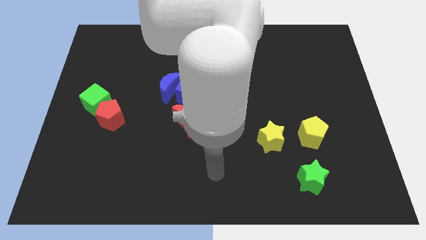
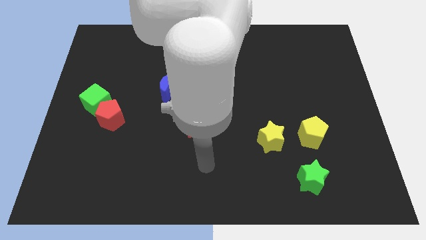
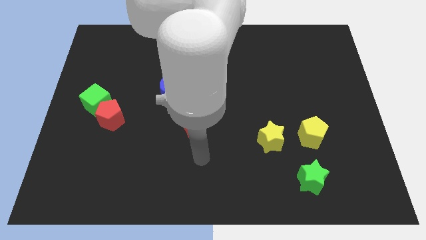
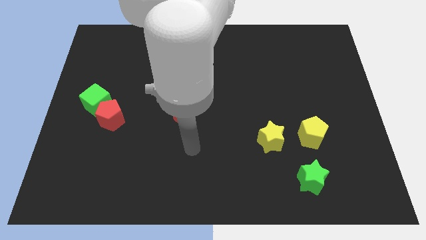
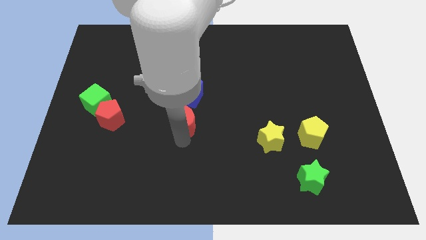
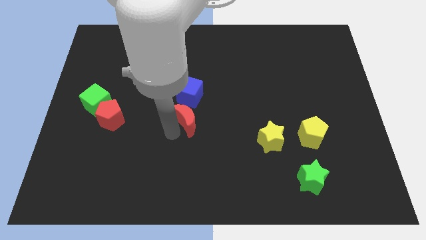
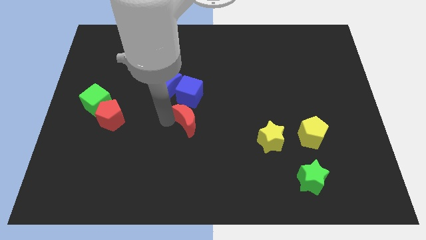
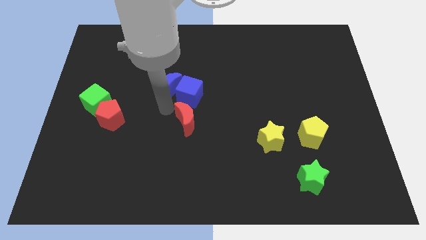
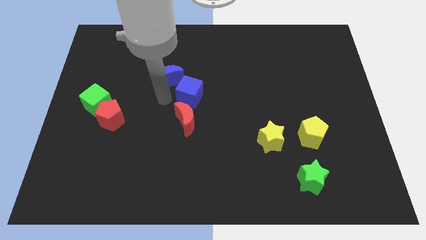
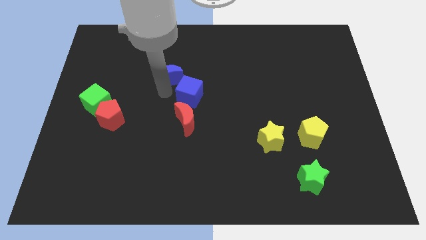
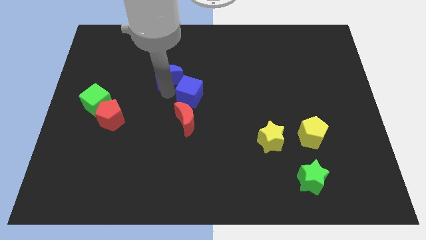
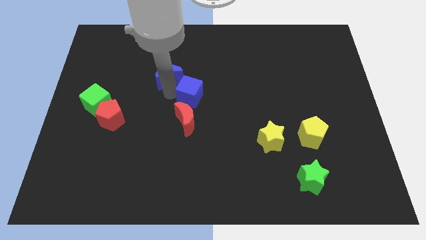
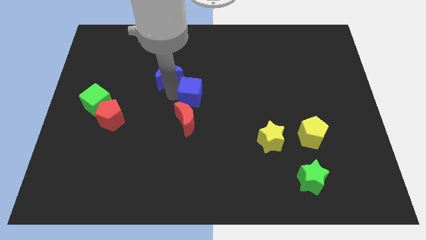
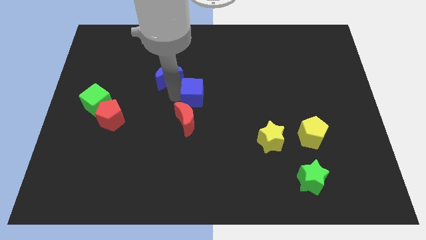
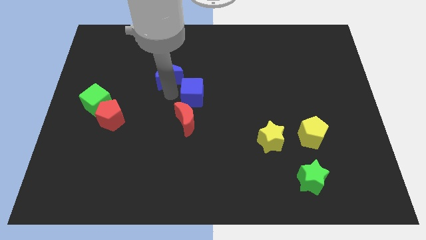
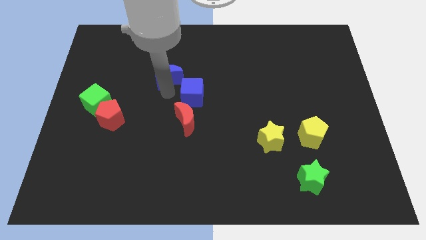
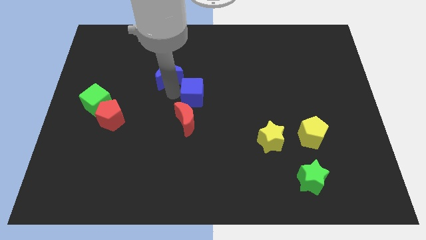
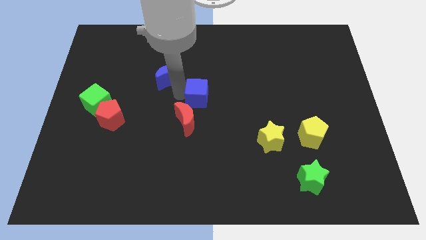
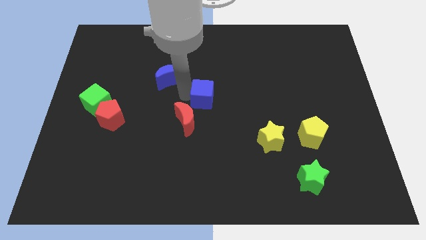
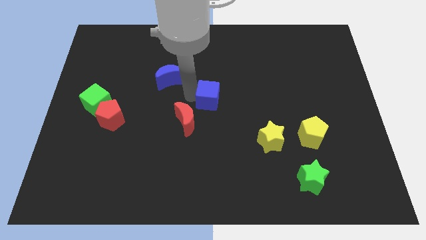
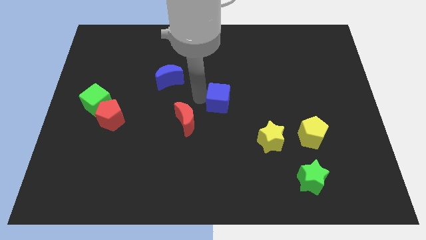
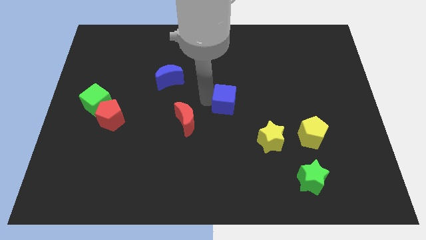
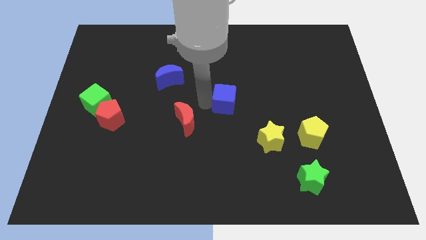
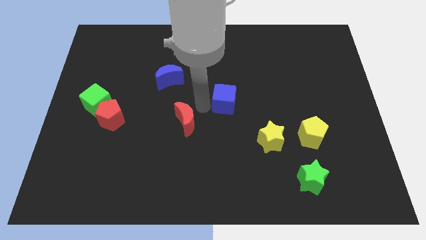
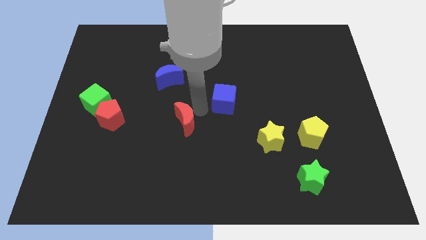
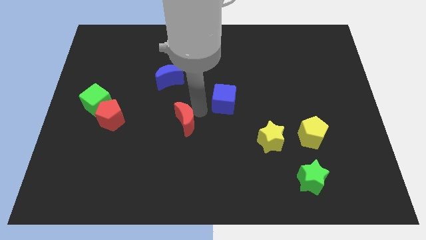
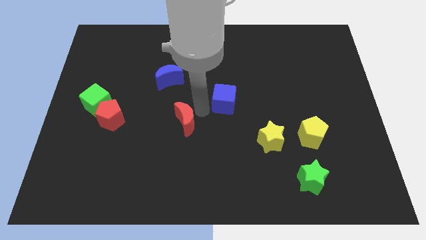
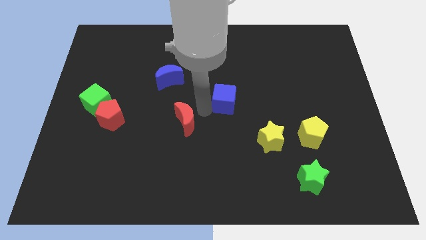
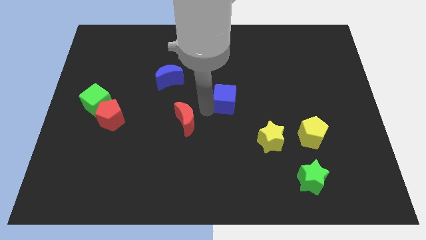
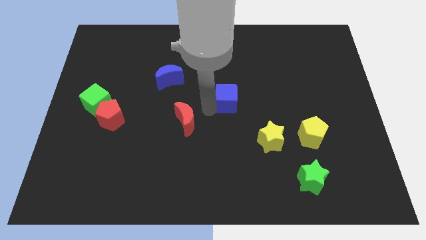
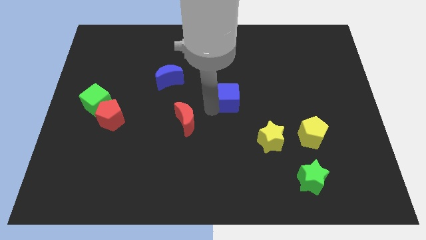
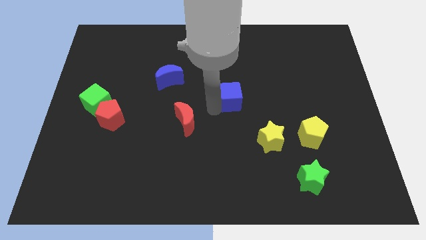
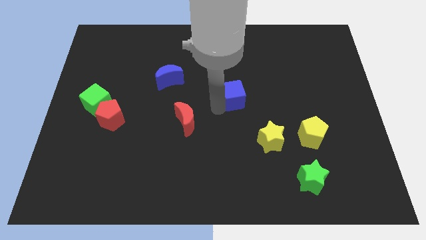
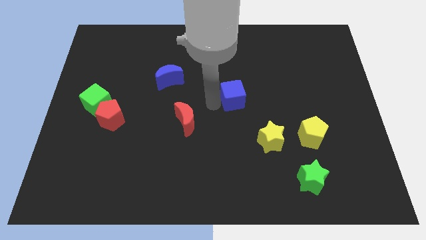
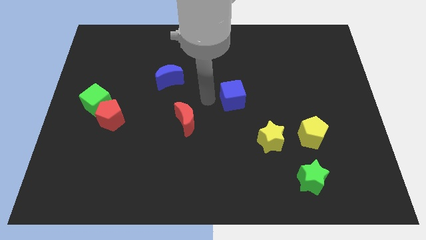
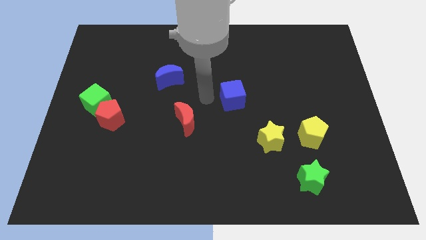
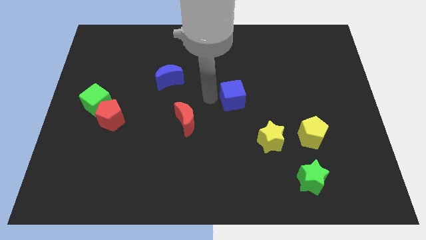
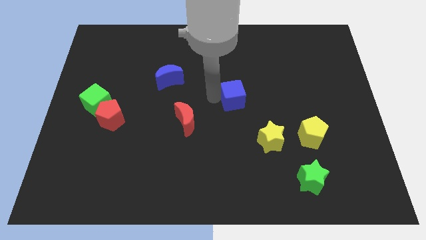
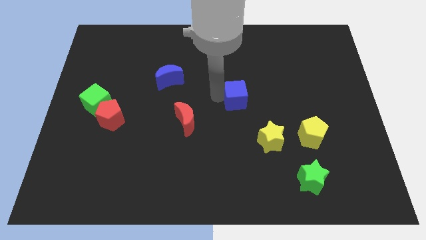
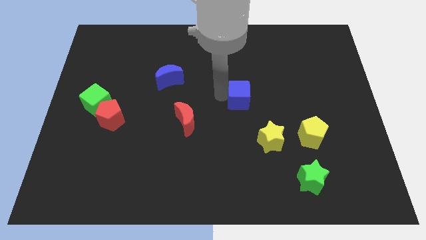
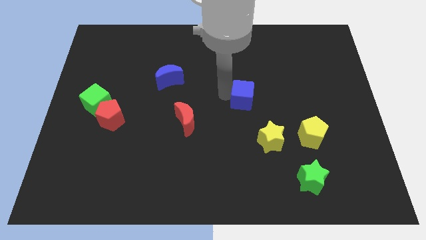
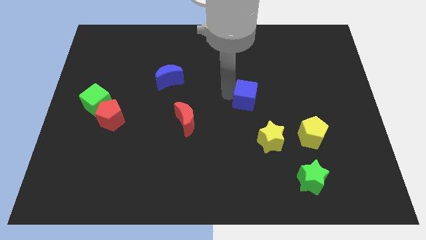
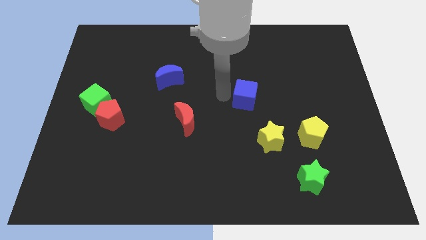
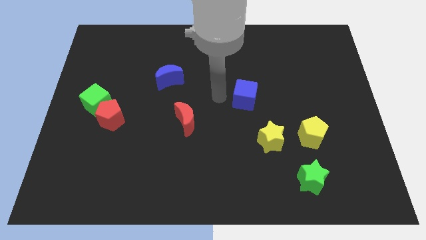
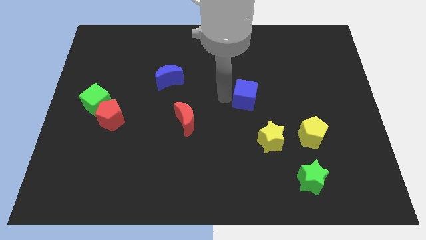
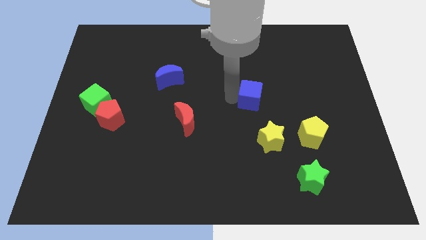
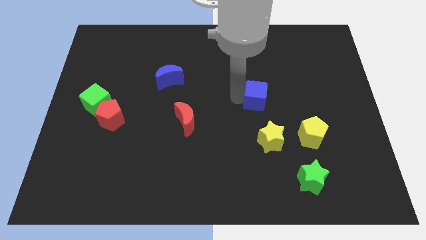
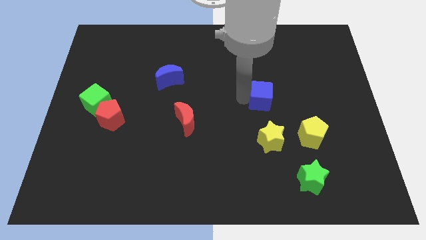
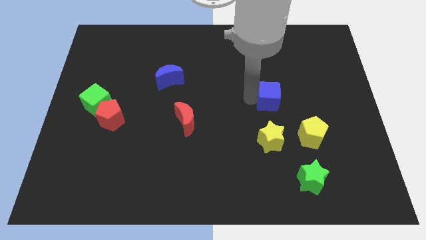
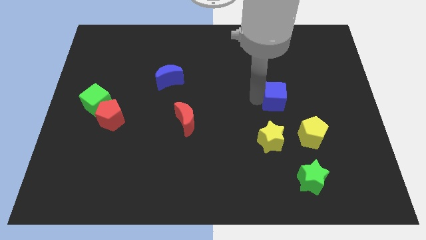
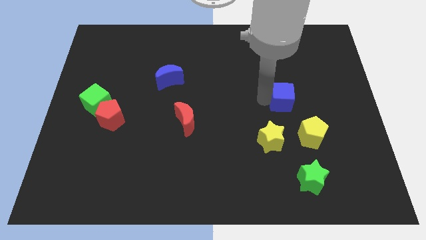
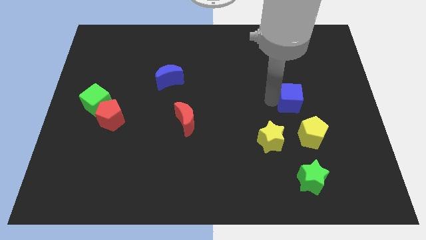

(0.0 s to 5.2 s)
move the blue cube above the yellow pentagon

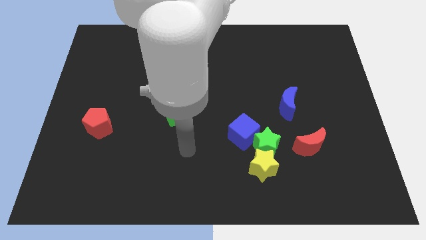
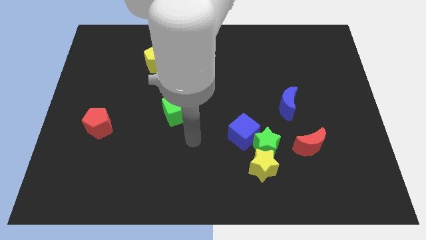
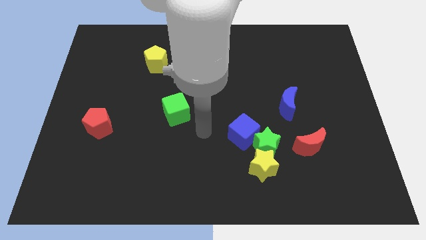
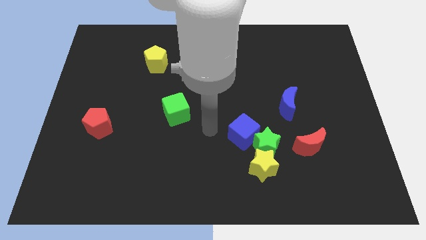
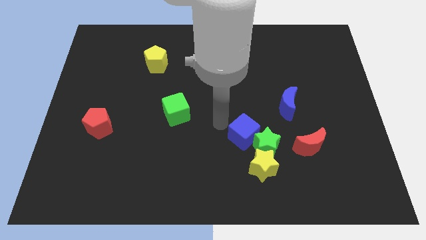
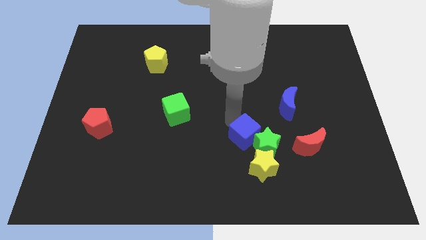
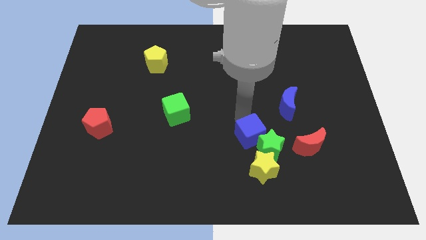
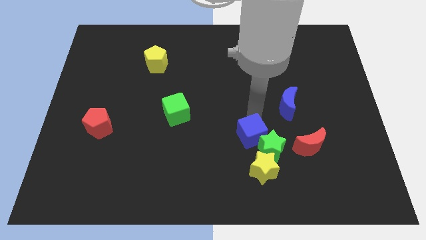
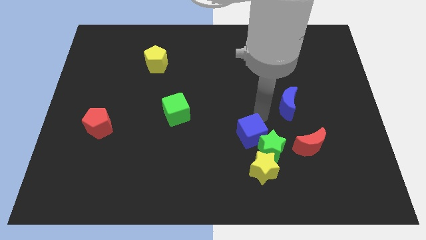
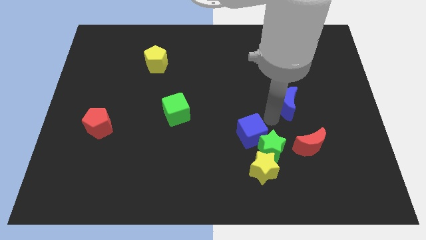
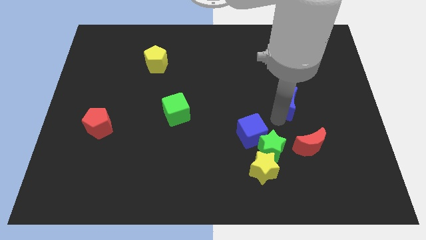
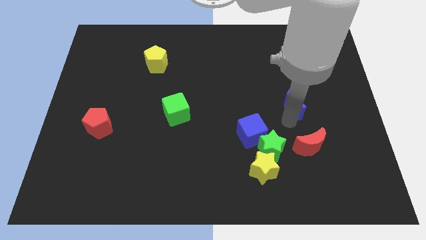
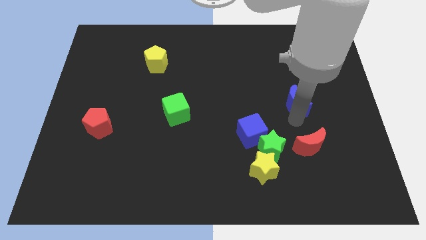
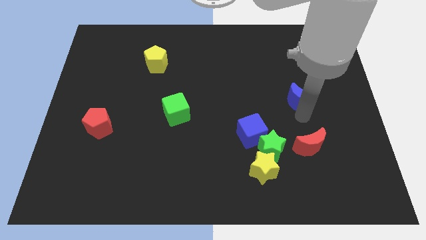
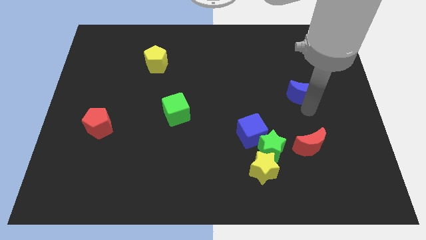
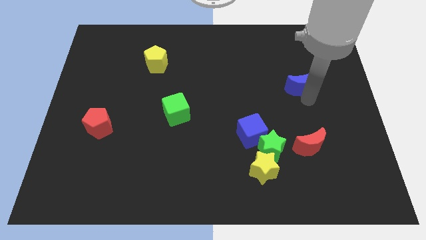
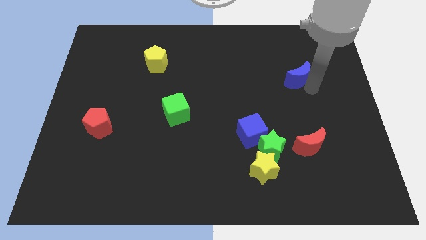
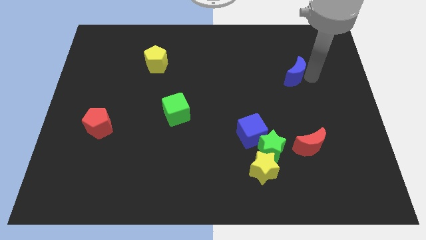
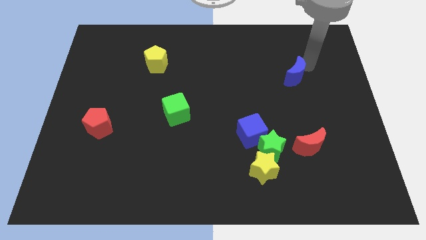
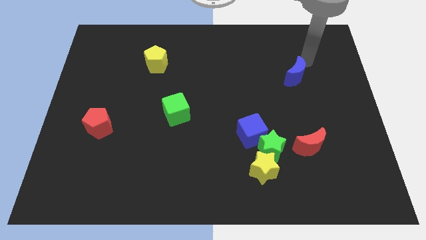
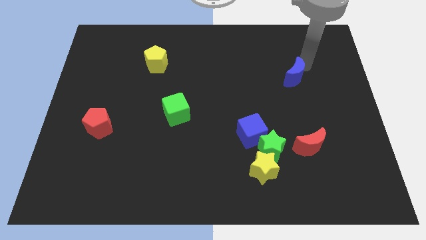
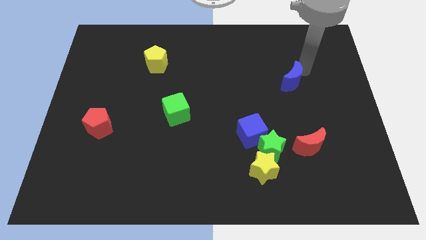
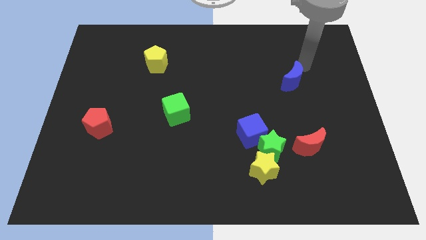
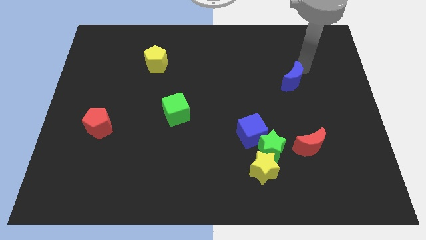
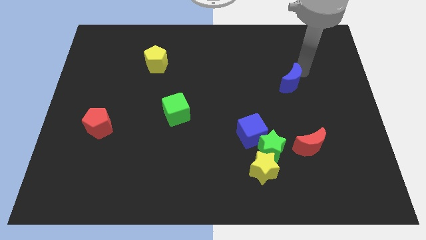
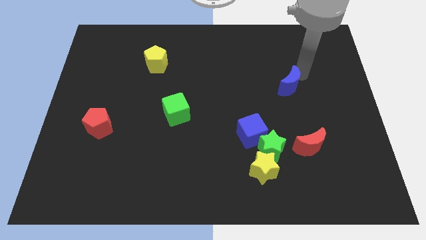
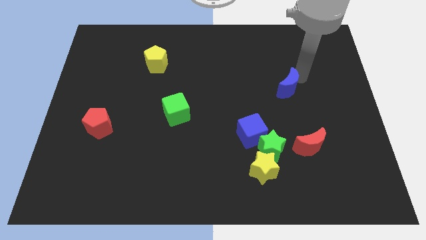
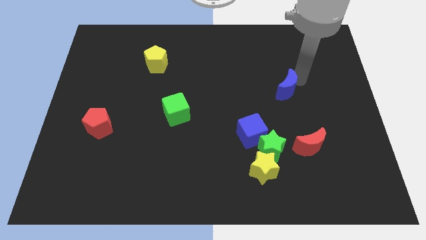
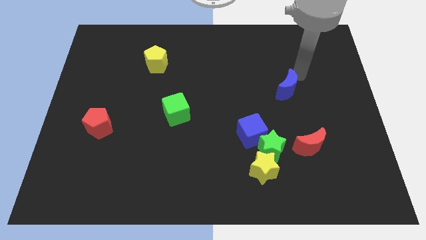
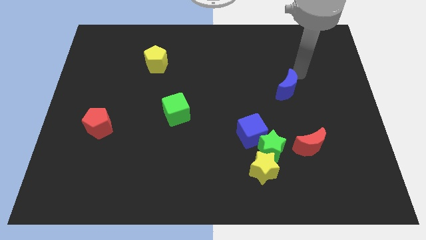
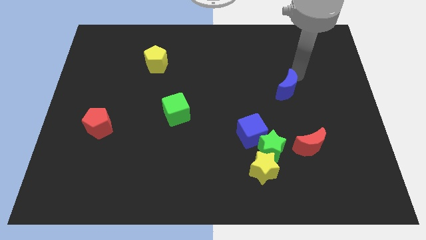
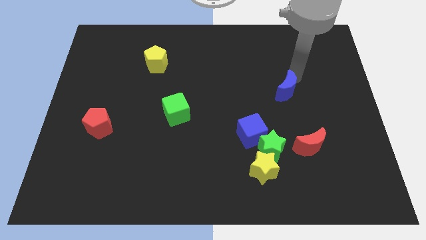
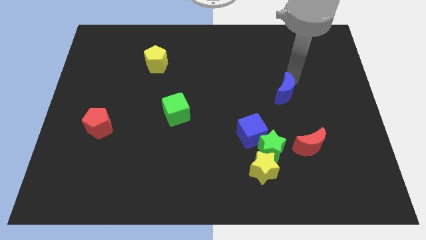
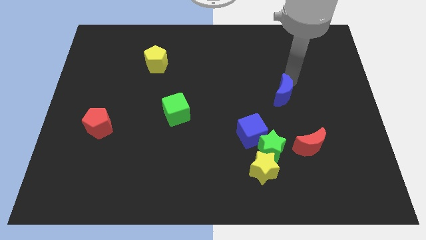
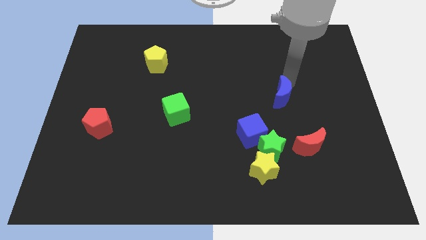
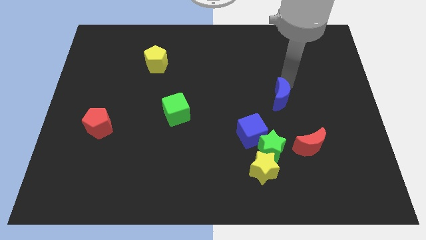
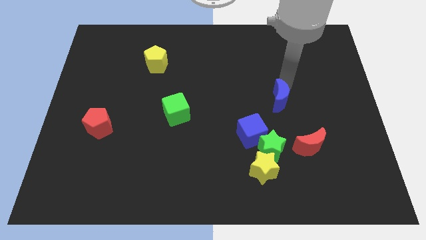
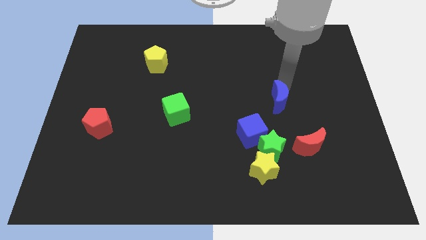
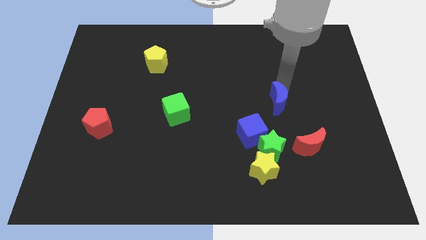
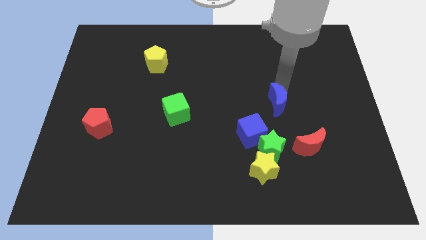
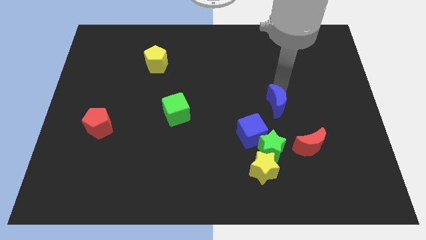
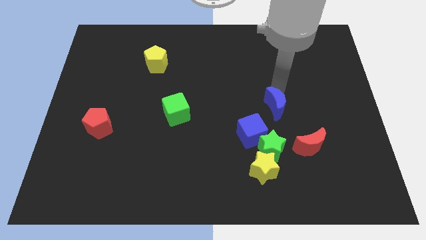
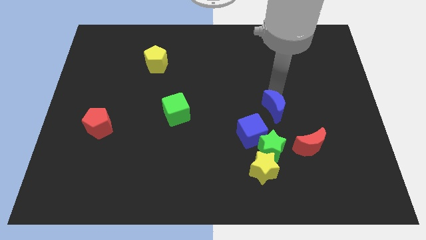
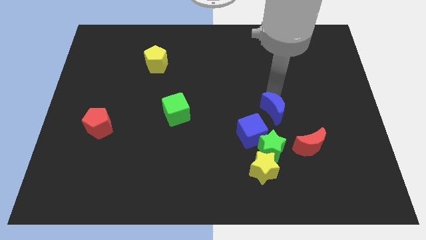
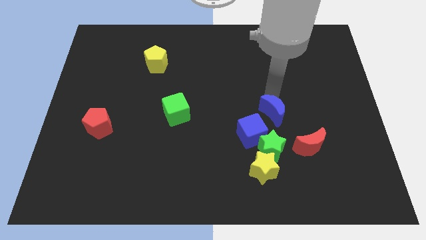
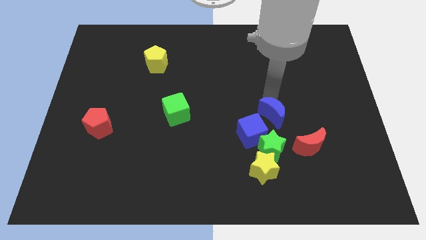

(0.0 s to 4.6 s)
put the blue moon to the top of the yellow star
